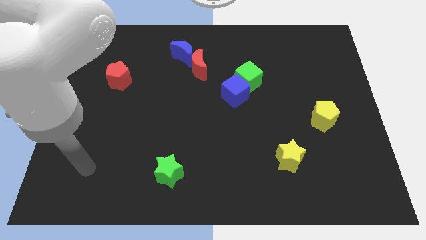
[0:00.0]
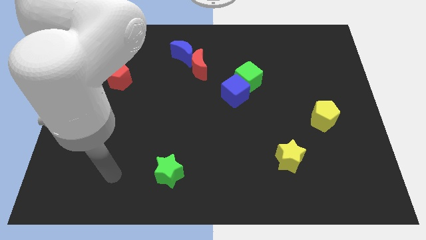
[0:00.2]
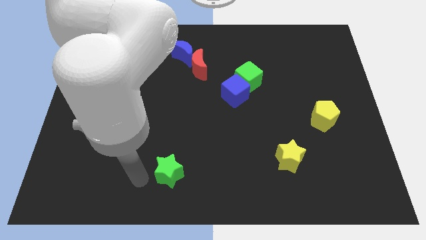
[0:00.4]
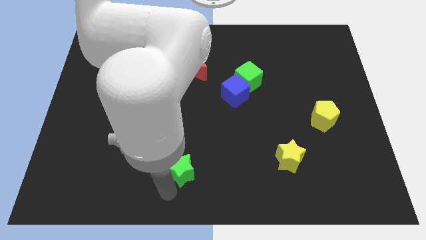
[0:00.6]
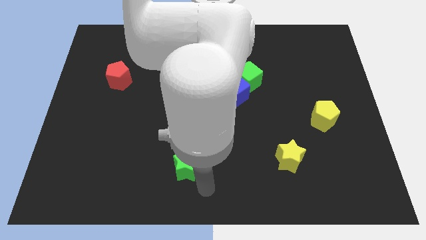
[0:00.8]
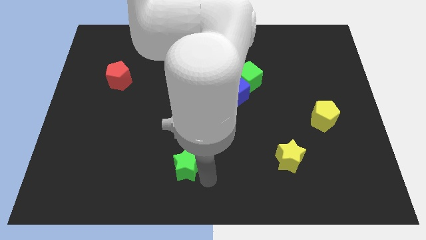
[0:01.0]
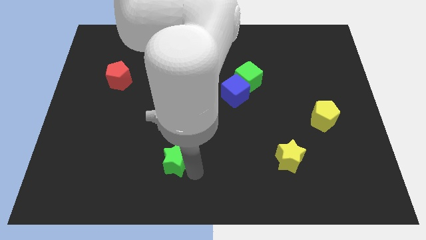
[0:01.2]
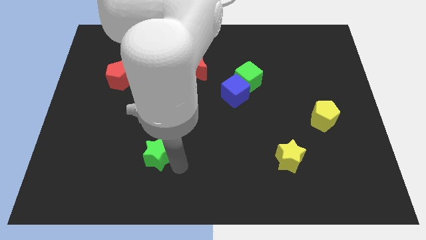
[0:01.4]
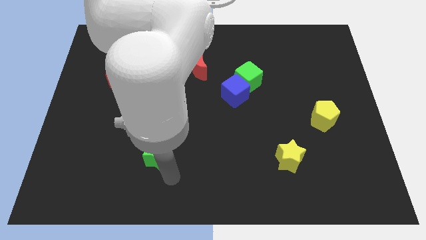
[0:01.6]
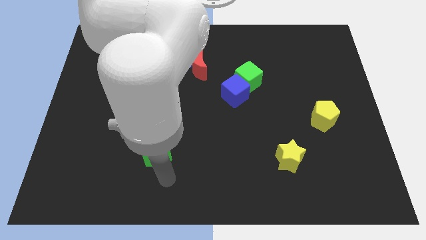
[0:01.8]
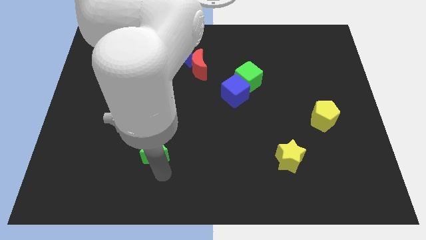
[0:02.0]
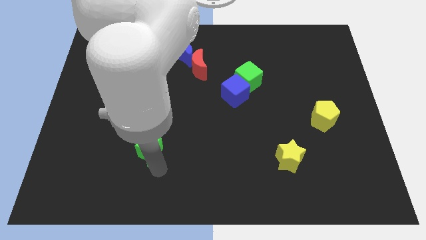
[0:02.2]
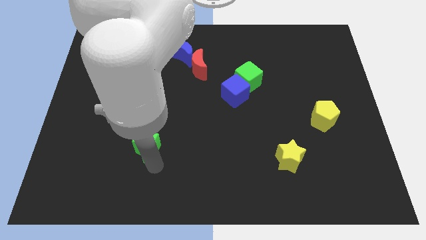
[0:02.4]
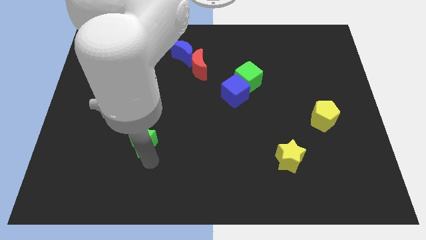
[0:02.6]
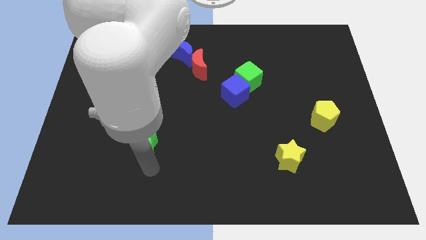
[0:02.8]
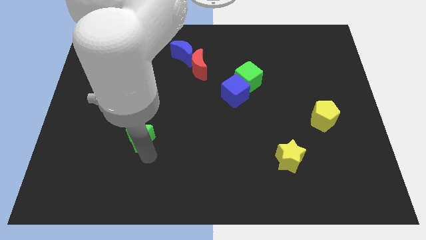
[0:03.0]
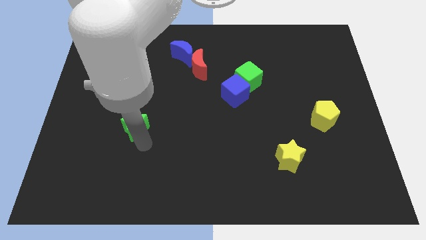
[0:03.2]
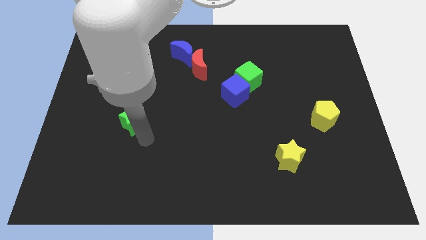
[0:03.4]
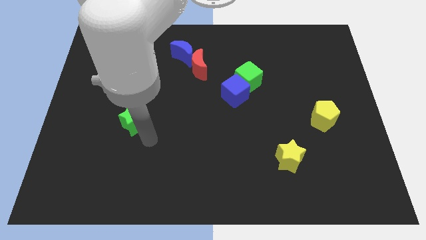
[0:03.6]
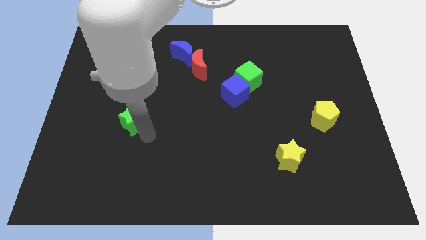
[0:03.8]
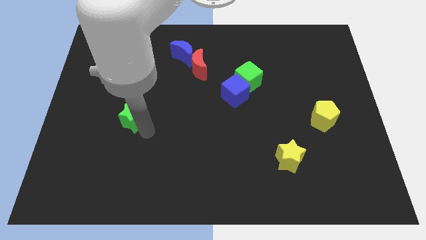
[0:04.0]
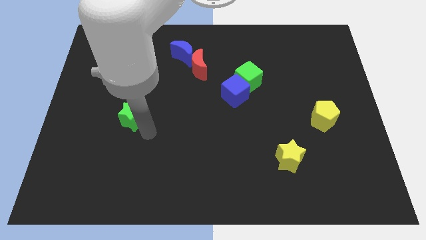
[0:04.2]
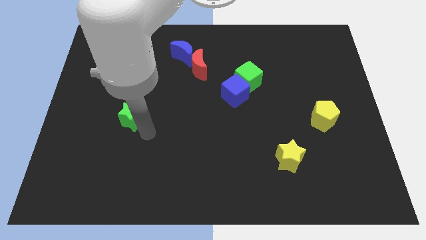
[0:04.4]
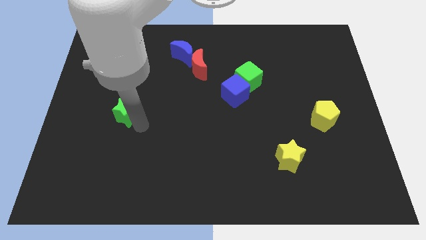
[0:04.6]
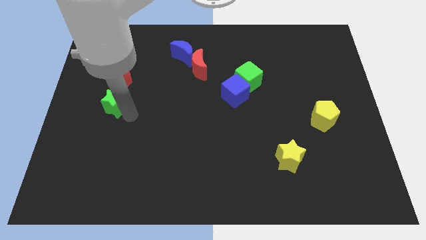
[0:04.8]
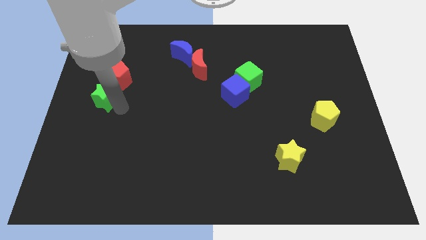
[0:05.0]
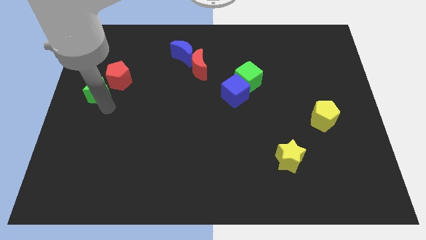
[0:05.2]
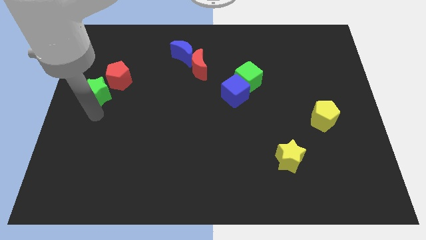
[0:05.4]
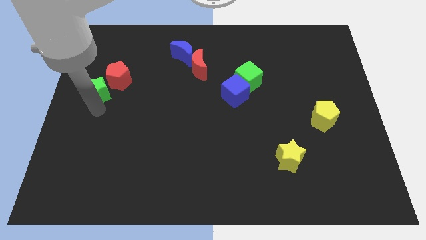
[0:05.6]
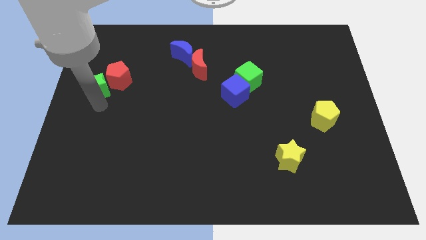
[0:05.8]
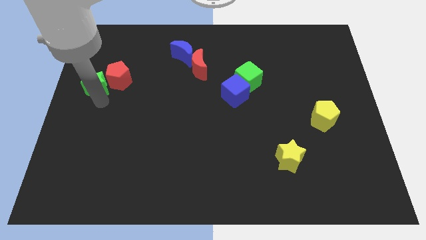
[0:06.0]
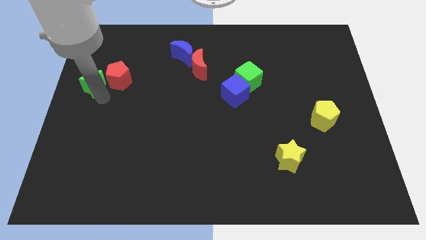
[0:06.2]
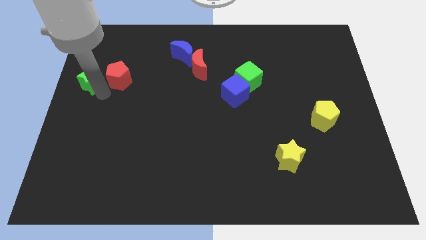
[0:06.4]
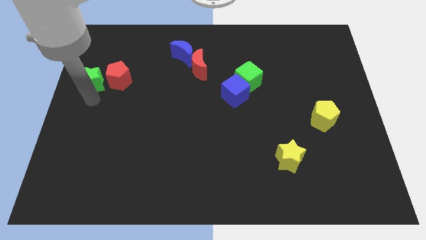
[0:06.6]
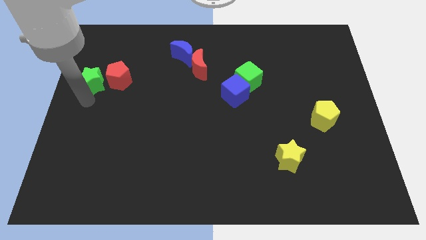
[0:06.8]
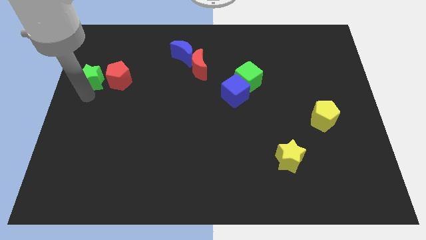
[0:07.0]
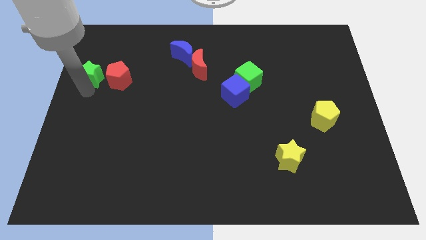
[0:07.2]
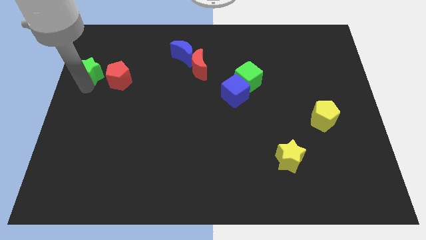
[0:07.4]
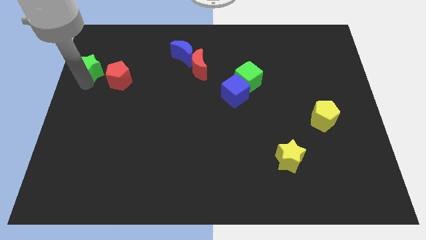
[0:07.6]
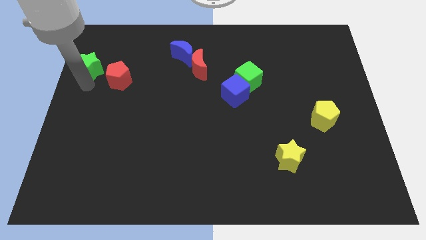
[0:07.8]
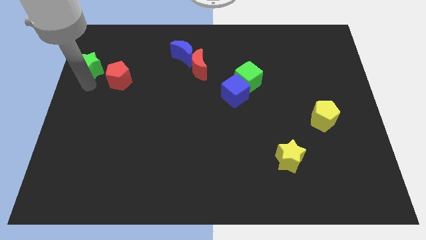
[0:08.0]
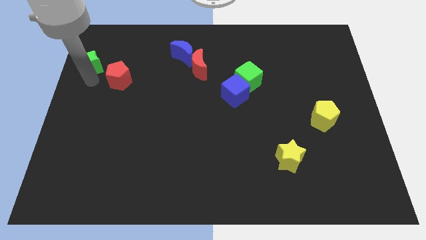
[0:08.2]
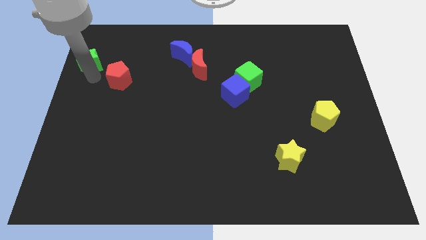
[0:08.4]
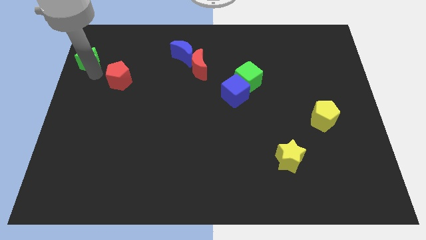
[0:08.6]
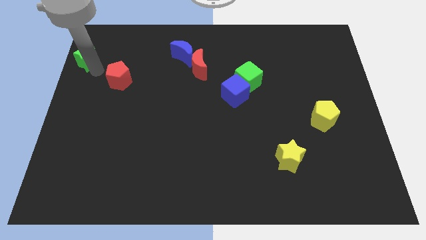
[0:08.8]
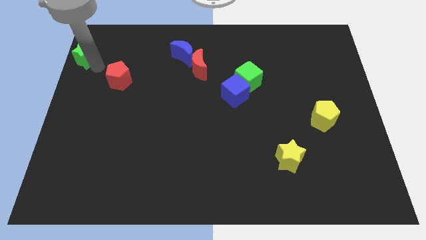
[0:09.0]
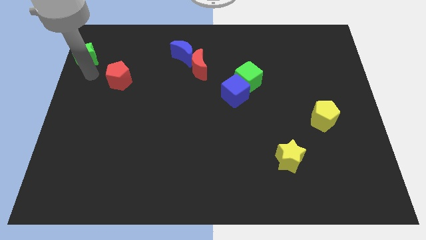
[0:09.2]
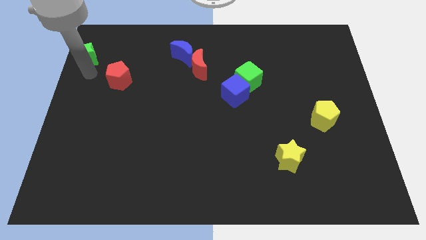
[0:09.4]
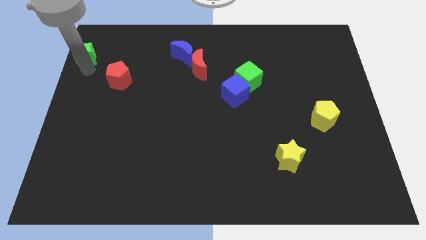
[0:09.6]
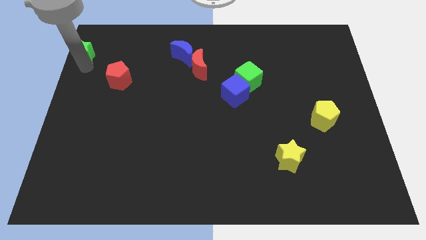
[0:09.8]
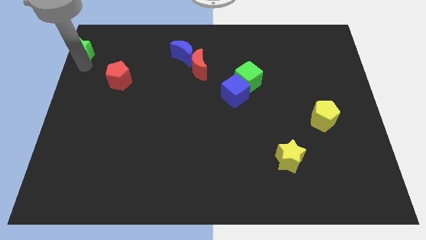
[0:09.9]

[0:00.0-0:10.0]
slide the green star to the top left of the board

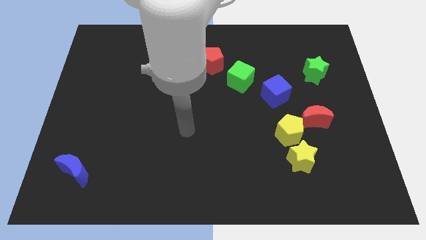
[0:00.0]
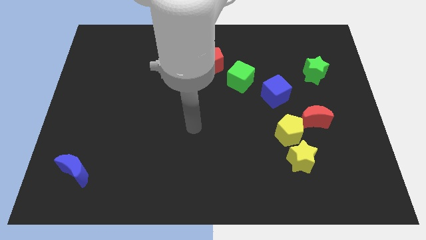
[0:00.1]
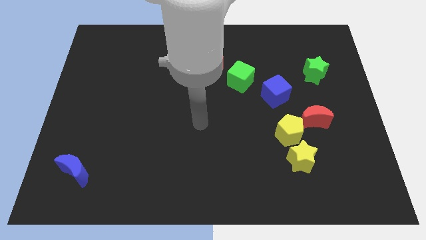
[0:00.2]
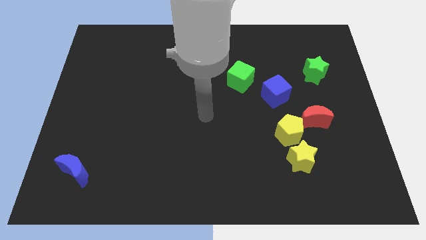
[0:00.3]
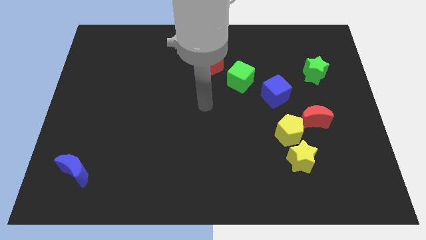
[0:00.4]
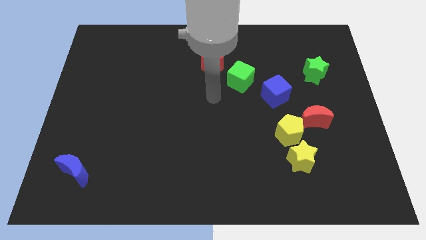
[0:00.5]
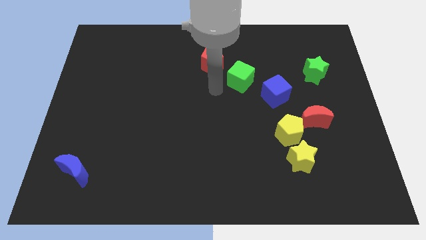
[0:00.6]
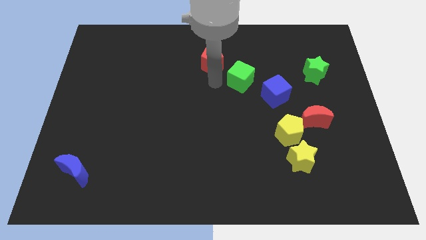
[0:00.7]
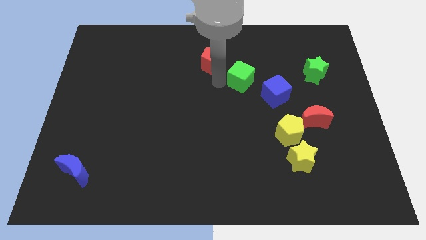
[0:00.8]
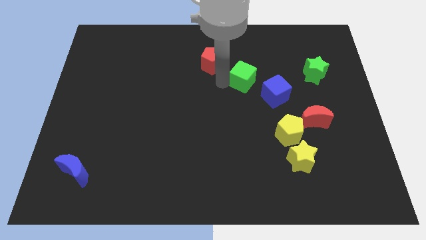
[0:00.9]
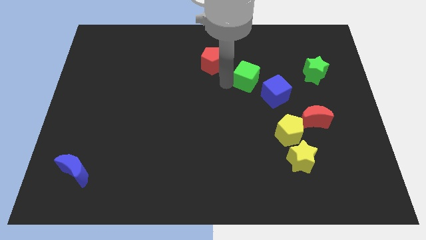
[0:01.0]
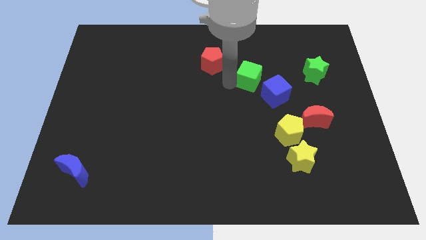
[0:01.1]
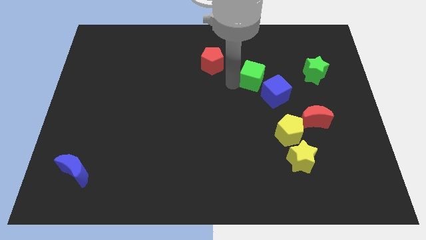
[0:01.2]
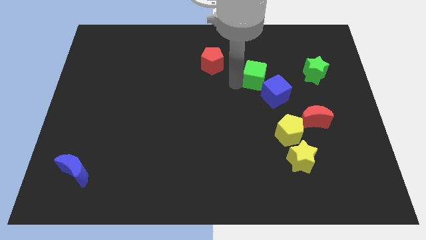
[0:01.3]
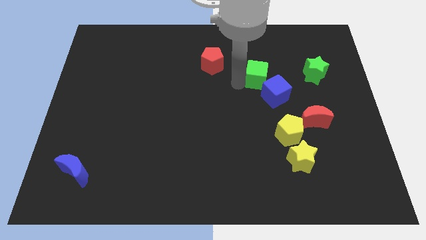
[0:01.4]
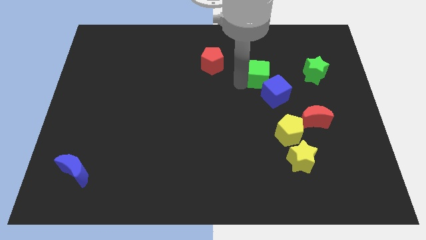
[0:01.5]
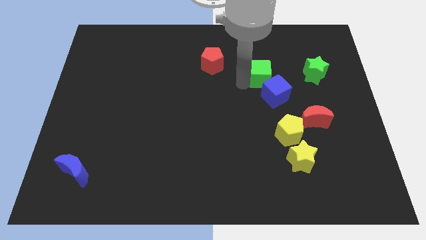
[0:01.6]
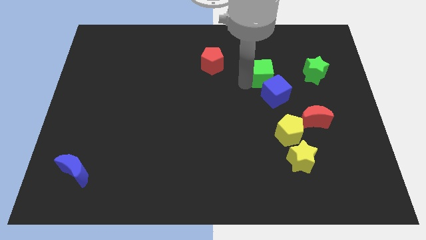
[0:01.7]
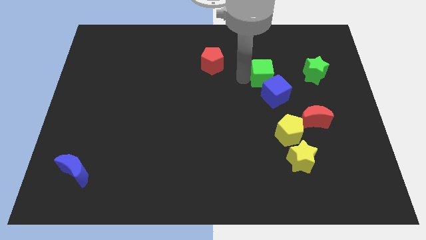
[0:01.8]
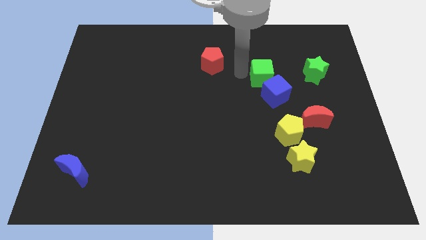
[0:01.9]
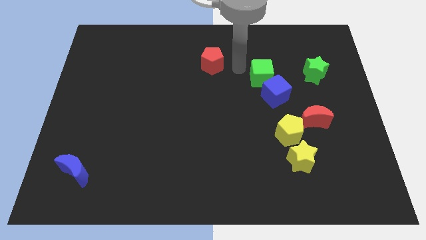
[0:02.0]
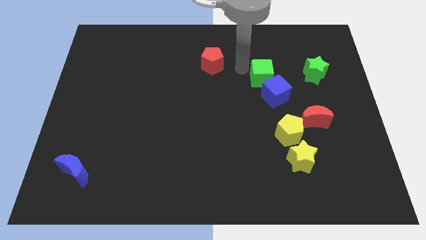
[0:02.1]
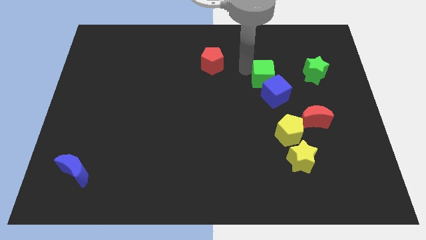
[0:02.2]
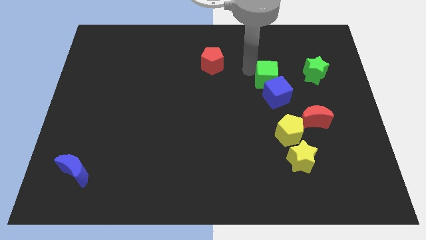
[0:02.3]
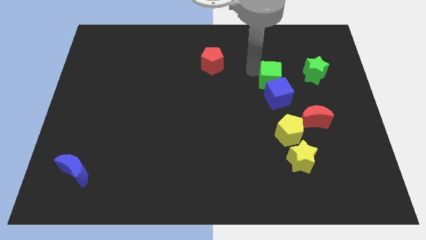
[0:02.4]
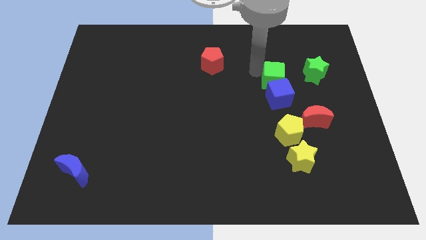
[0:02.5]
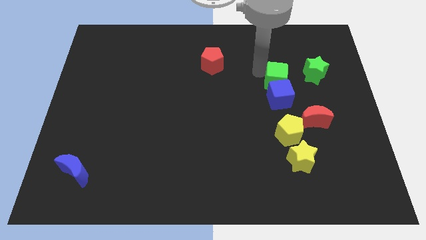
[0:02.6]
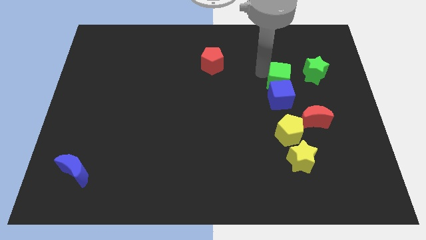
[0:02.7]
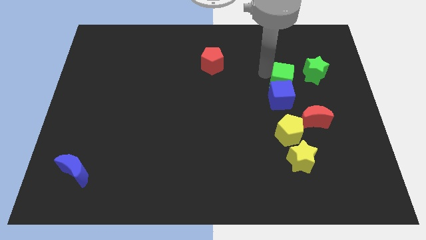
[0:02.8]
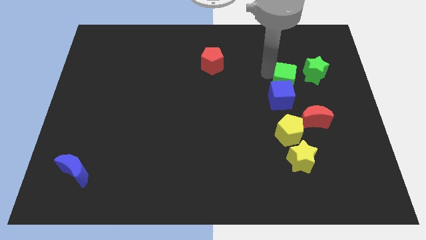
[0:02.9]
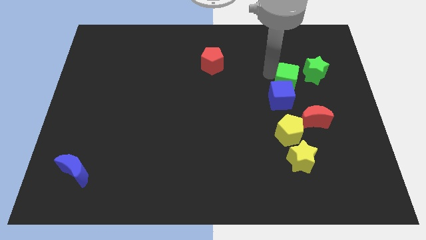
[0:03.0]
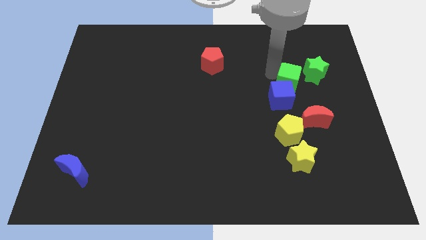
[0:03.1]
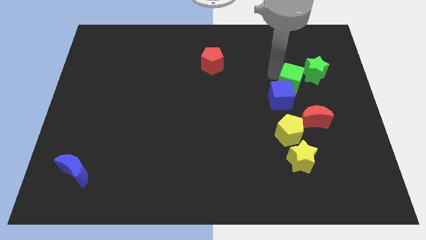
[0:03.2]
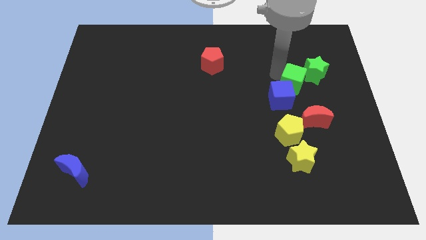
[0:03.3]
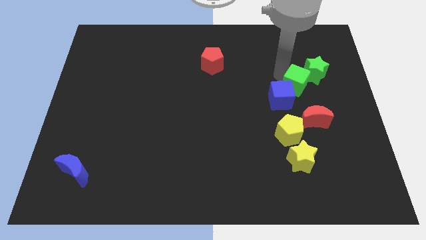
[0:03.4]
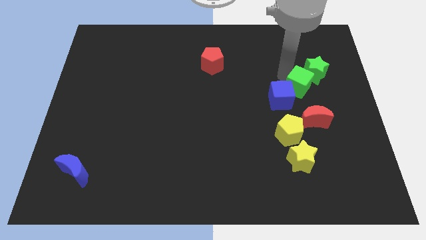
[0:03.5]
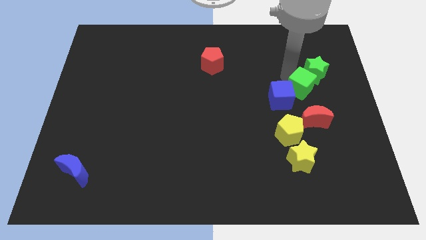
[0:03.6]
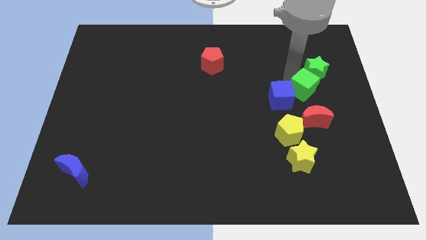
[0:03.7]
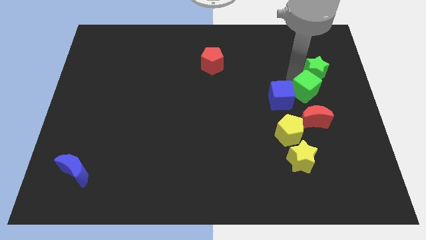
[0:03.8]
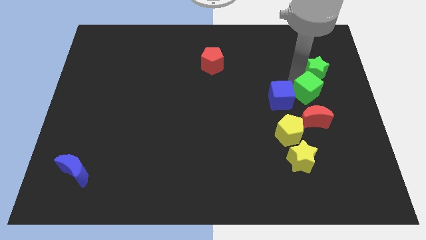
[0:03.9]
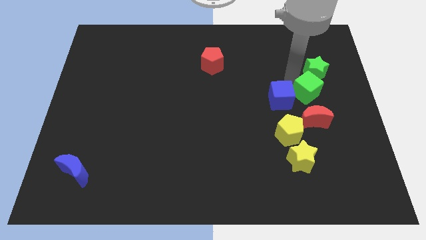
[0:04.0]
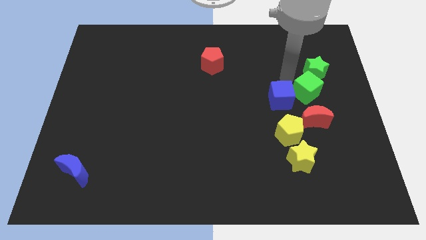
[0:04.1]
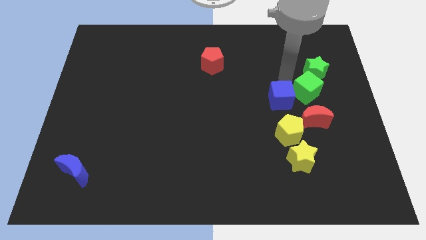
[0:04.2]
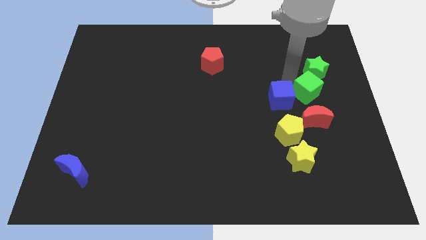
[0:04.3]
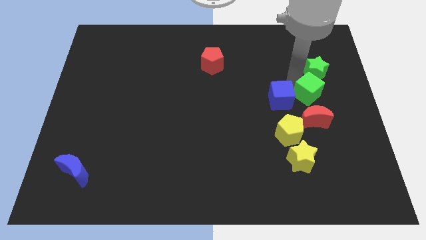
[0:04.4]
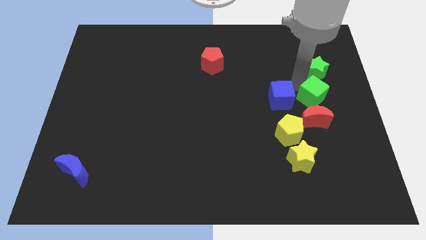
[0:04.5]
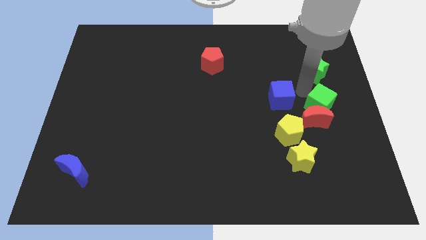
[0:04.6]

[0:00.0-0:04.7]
push the green cube to the right side of the board
